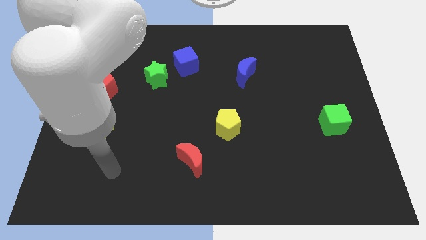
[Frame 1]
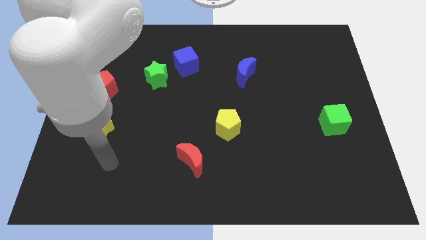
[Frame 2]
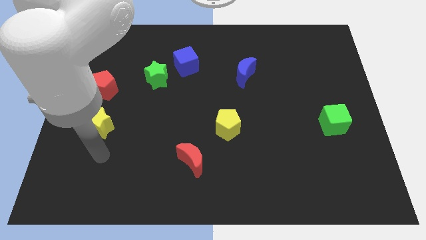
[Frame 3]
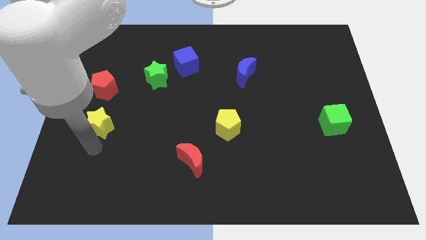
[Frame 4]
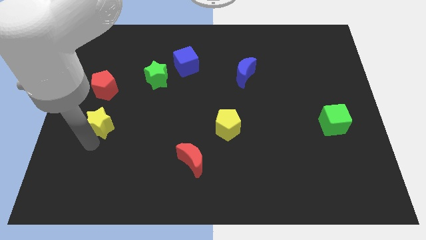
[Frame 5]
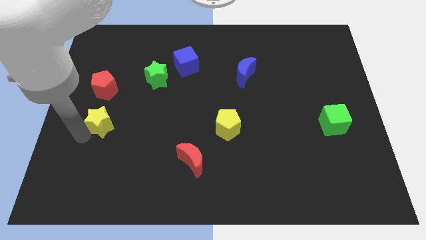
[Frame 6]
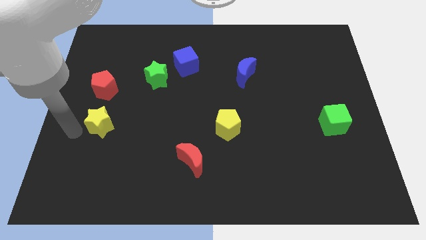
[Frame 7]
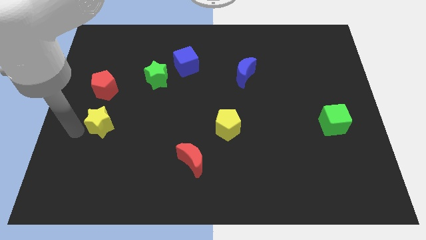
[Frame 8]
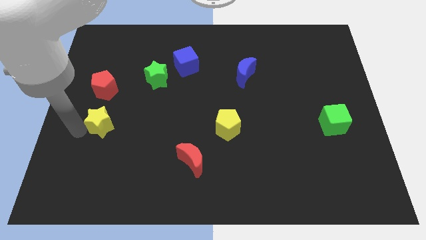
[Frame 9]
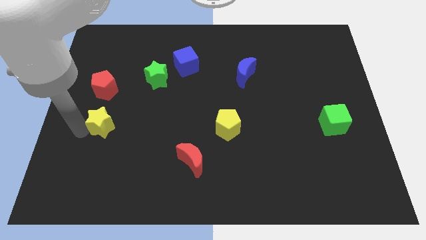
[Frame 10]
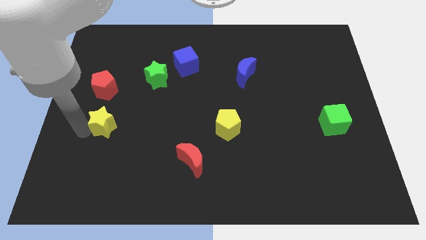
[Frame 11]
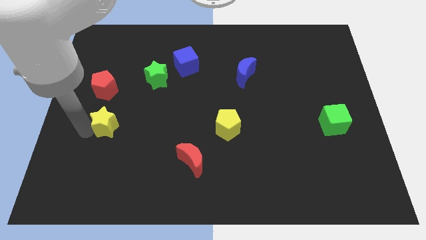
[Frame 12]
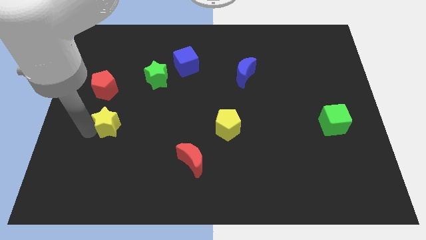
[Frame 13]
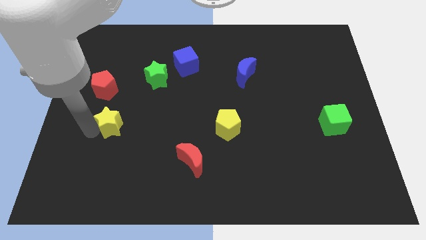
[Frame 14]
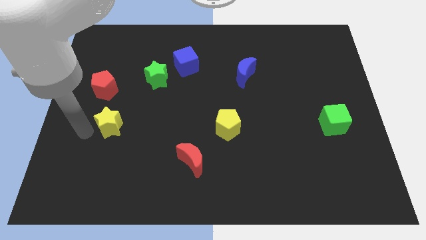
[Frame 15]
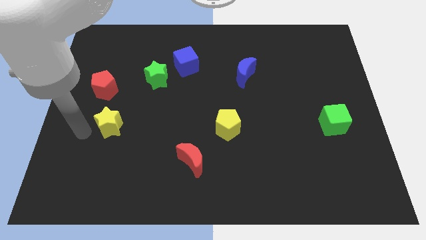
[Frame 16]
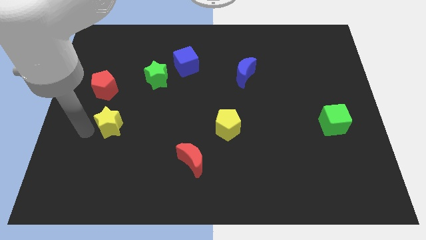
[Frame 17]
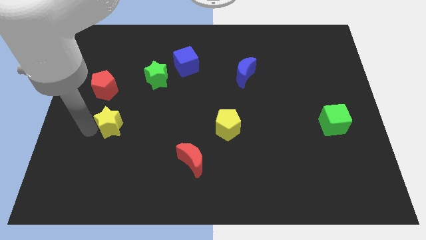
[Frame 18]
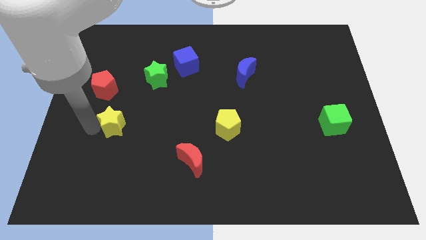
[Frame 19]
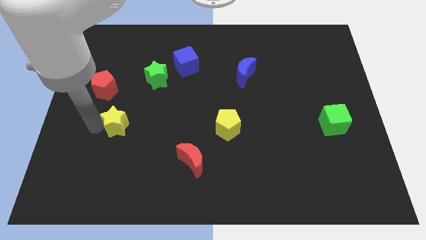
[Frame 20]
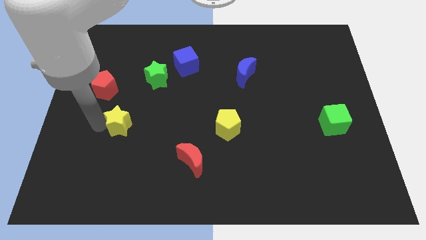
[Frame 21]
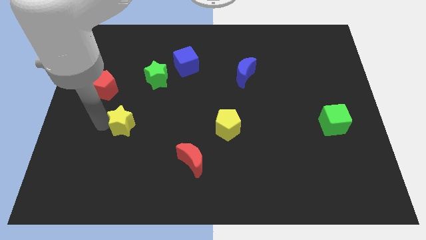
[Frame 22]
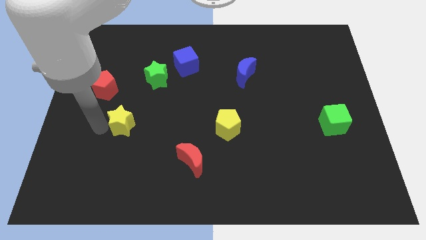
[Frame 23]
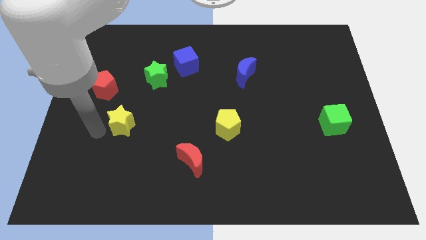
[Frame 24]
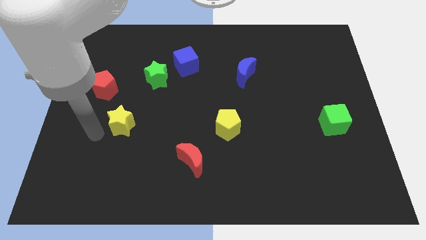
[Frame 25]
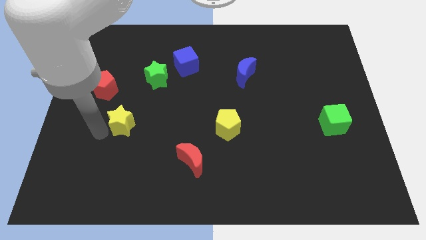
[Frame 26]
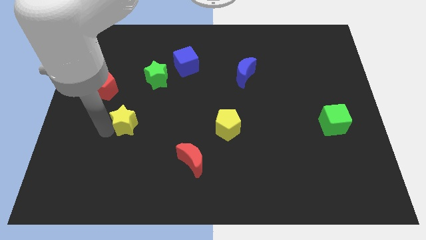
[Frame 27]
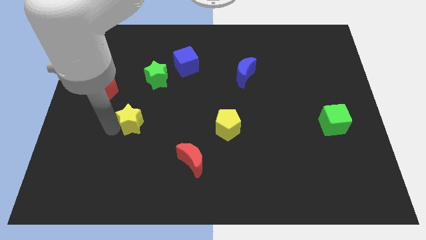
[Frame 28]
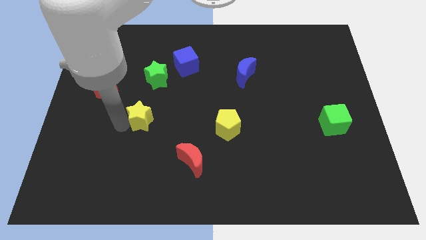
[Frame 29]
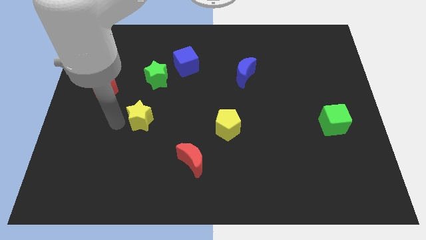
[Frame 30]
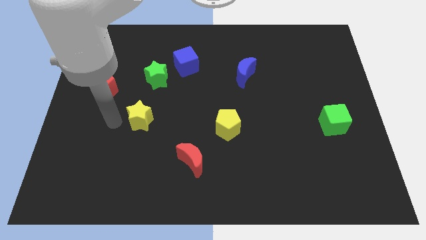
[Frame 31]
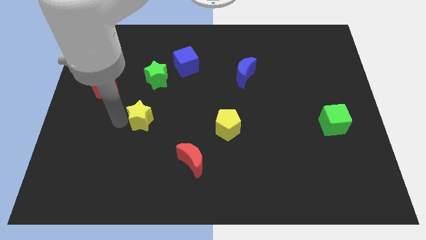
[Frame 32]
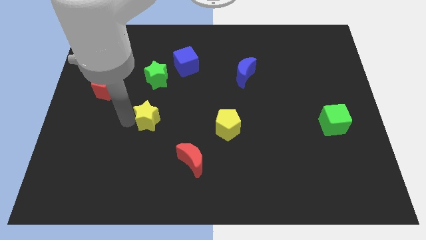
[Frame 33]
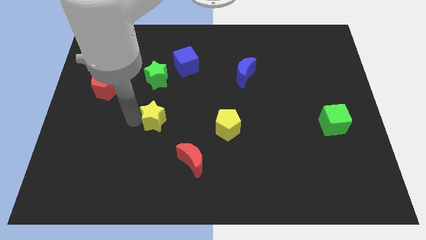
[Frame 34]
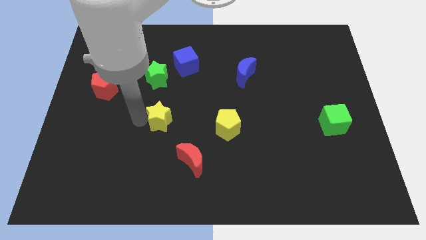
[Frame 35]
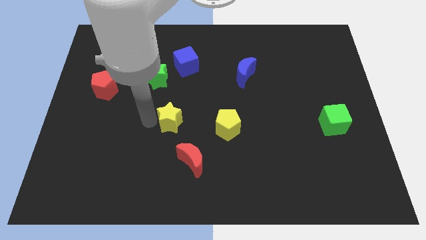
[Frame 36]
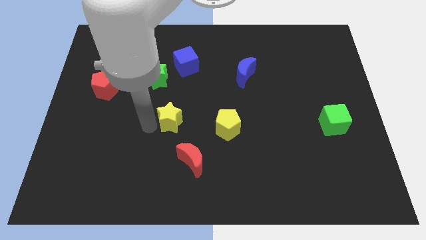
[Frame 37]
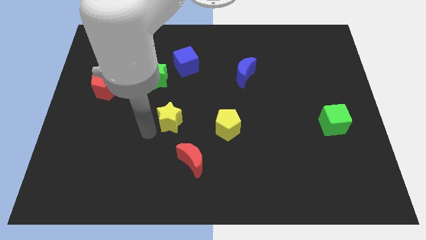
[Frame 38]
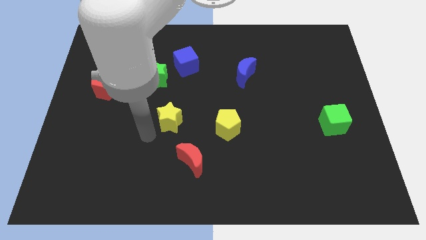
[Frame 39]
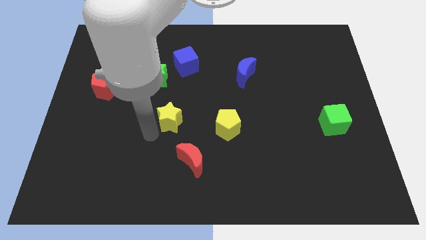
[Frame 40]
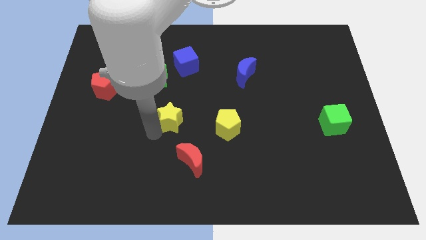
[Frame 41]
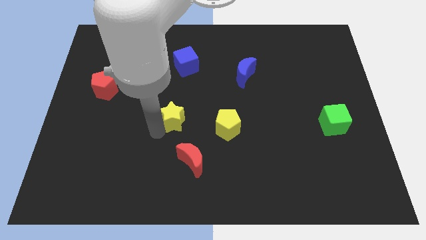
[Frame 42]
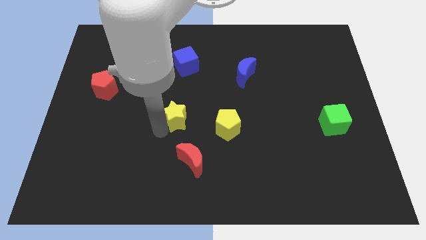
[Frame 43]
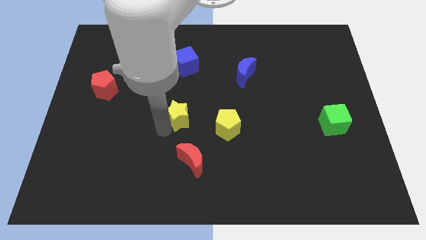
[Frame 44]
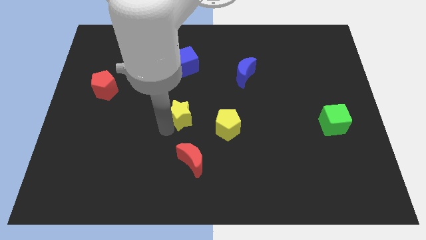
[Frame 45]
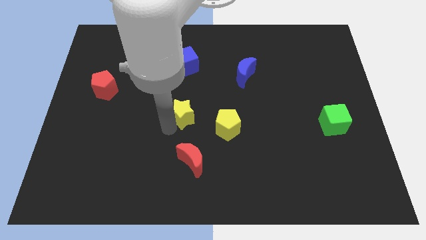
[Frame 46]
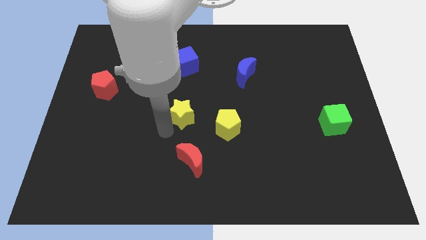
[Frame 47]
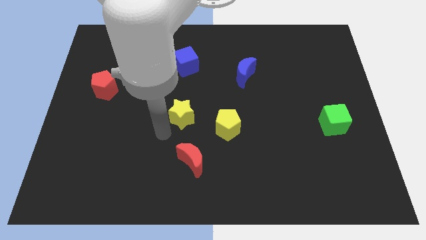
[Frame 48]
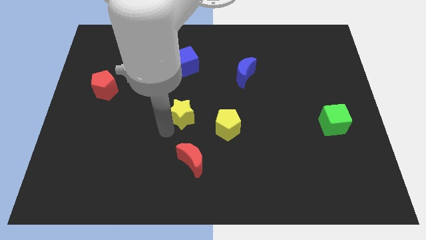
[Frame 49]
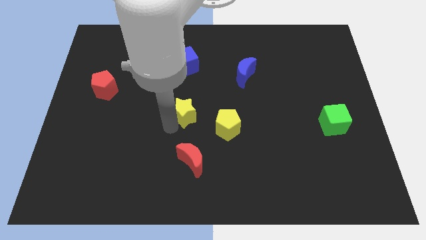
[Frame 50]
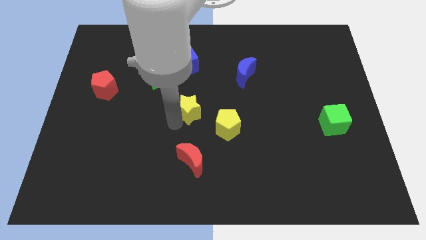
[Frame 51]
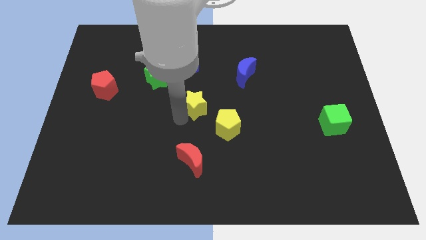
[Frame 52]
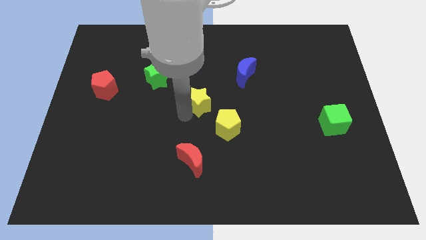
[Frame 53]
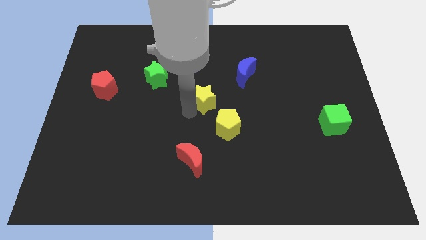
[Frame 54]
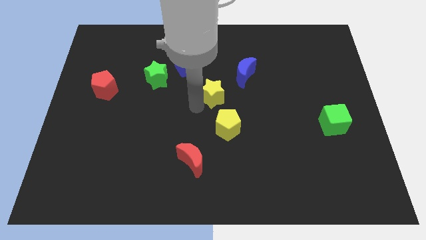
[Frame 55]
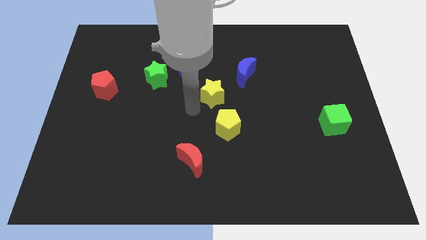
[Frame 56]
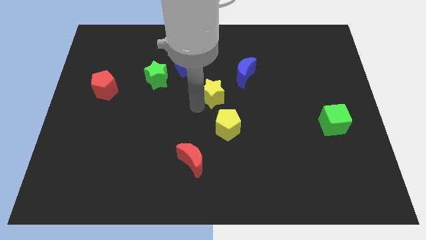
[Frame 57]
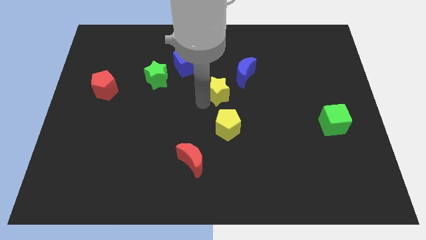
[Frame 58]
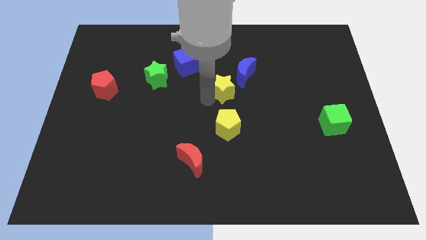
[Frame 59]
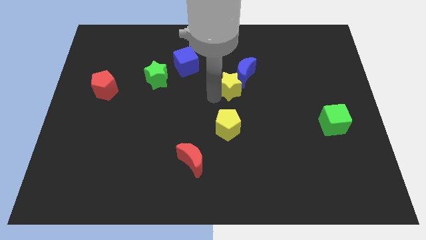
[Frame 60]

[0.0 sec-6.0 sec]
push the yellow star close to the blue moon

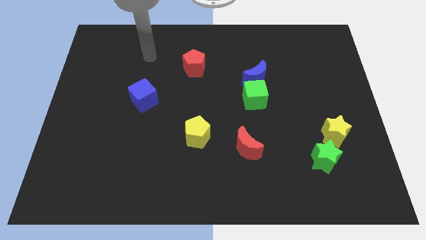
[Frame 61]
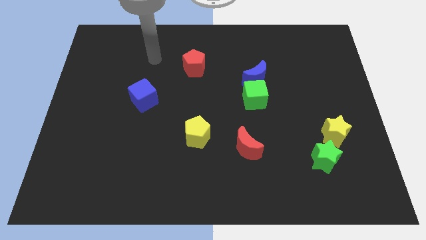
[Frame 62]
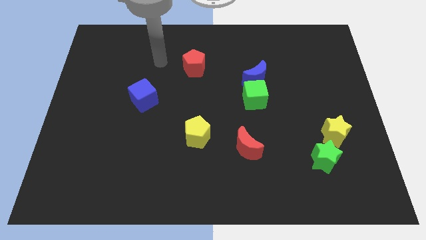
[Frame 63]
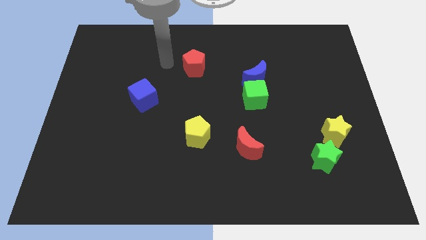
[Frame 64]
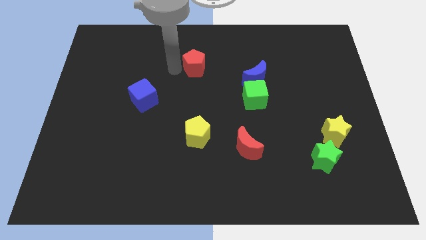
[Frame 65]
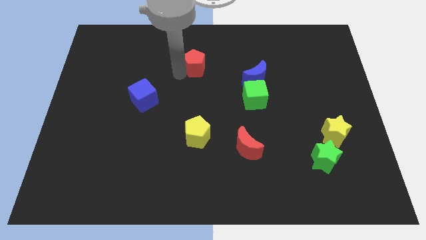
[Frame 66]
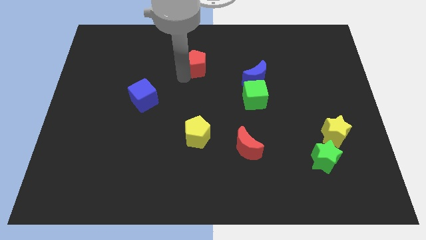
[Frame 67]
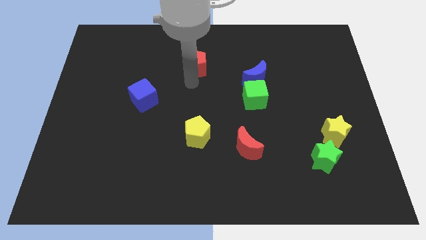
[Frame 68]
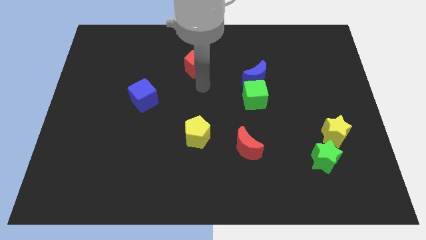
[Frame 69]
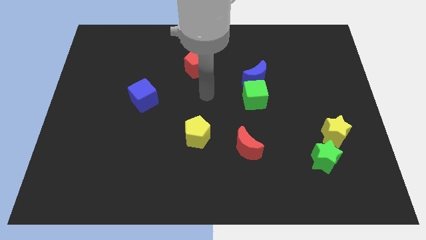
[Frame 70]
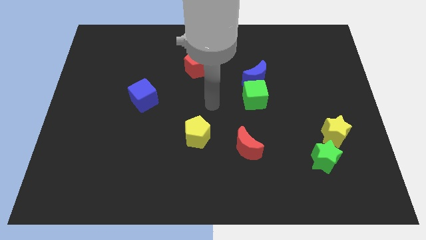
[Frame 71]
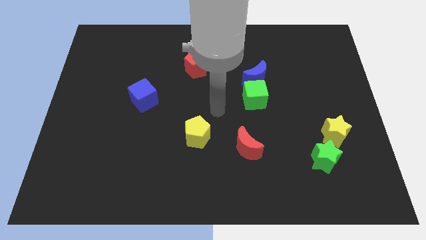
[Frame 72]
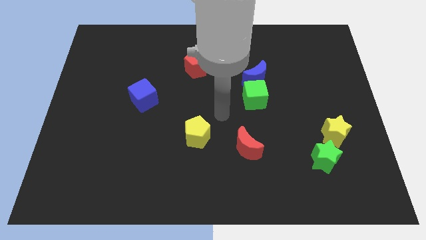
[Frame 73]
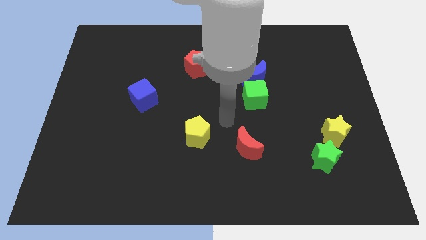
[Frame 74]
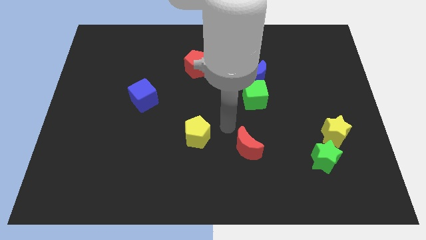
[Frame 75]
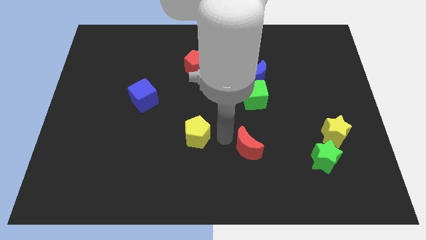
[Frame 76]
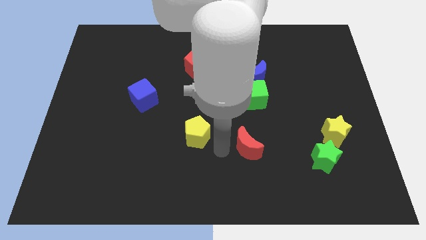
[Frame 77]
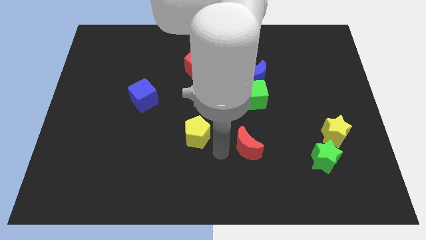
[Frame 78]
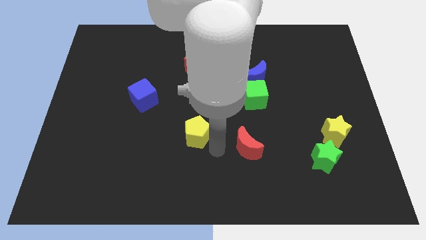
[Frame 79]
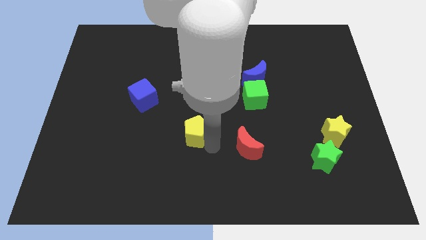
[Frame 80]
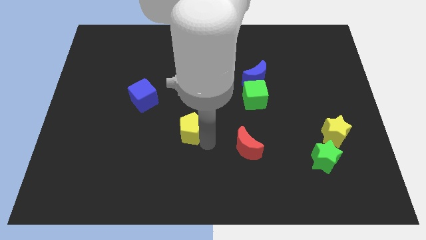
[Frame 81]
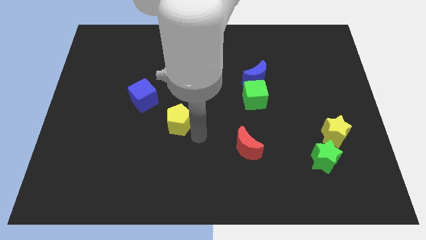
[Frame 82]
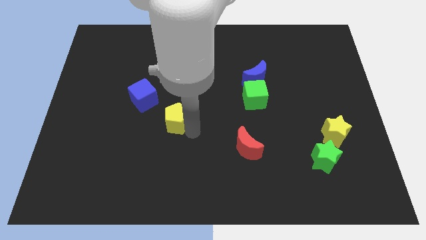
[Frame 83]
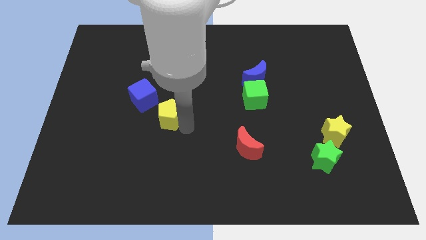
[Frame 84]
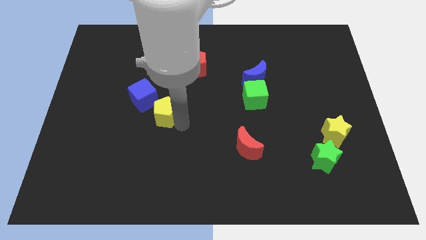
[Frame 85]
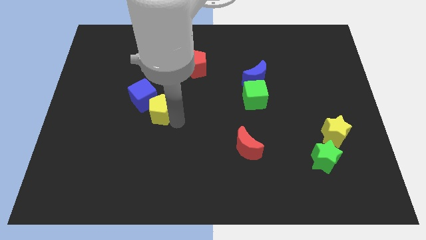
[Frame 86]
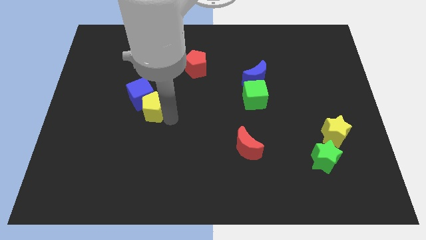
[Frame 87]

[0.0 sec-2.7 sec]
move the yellow pentagon close to the blue cube
